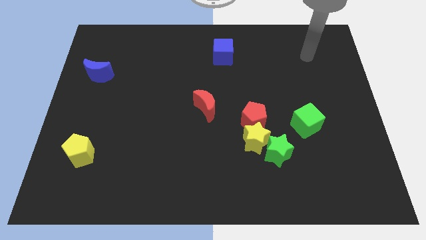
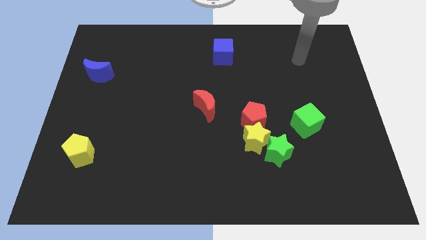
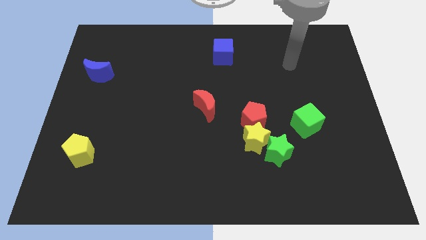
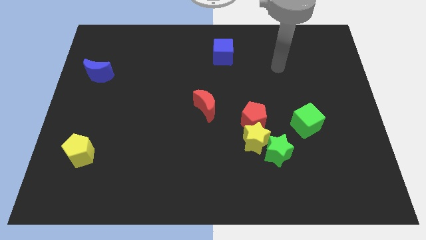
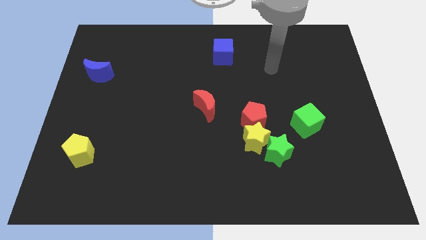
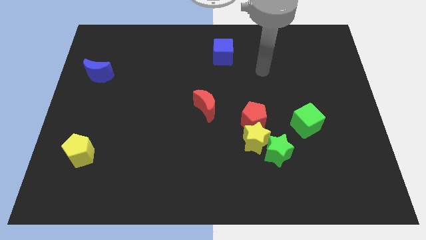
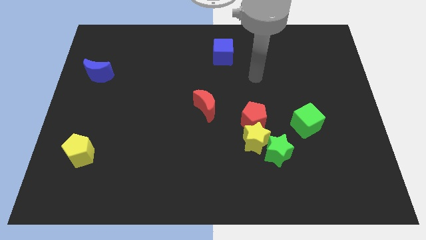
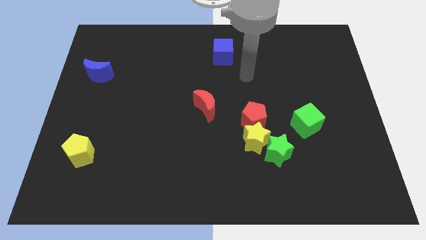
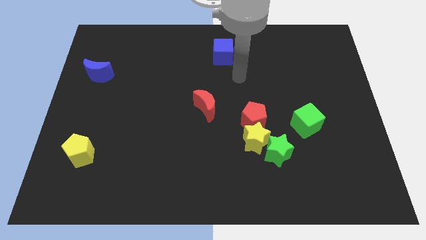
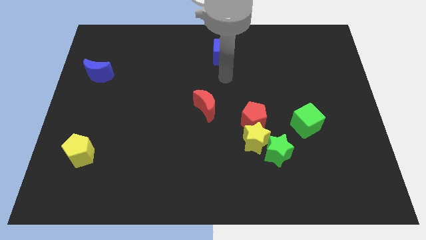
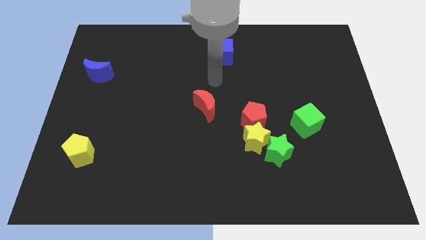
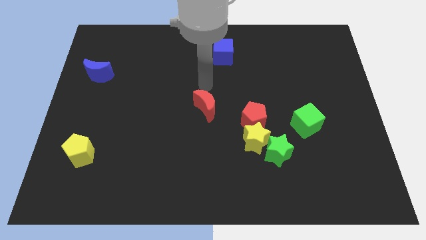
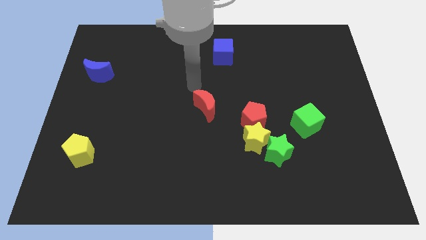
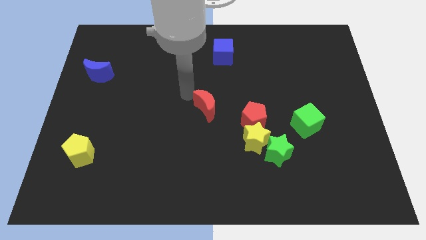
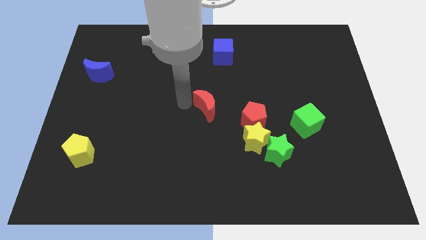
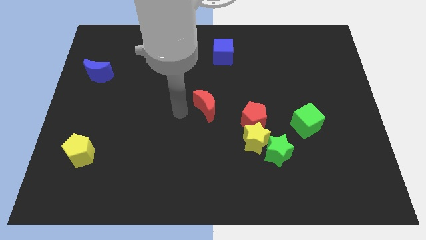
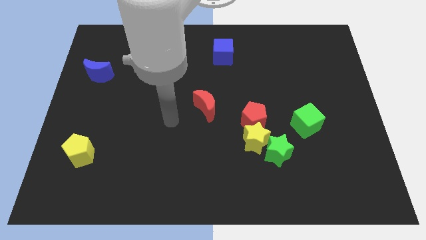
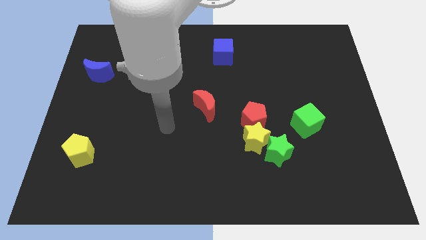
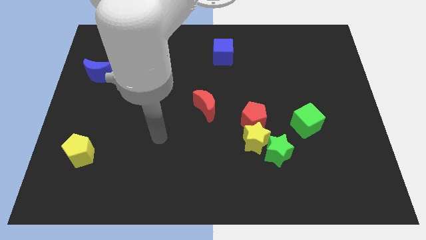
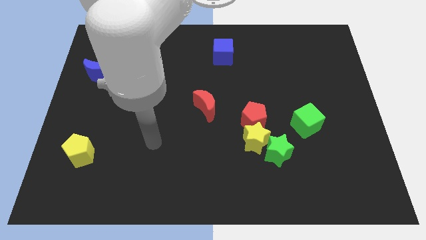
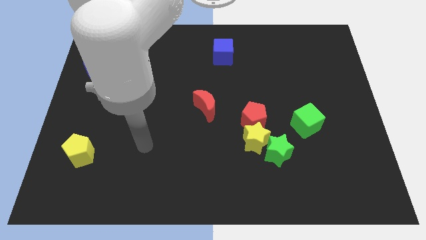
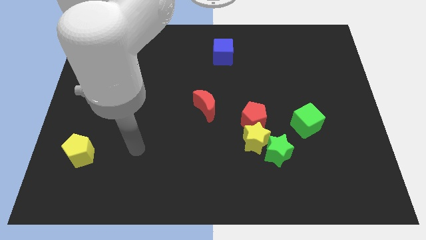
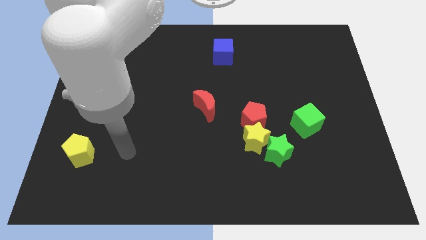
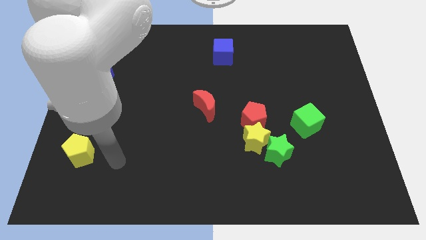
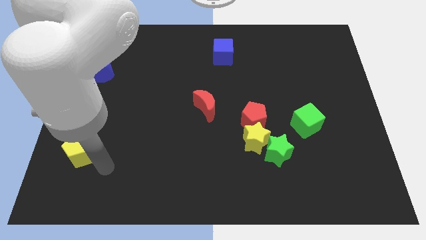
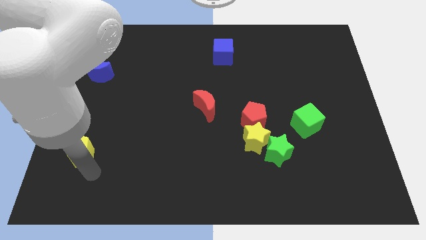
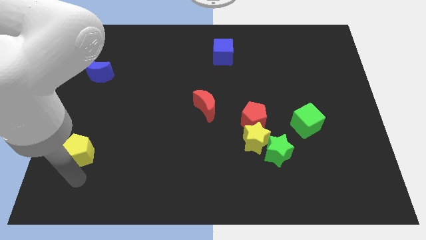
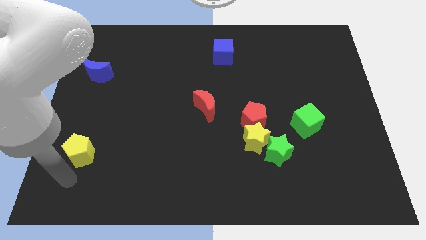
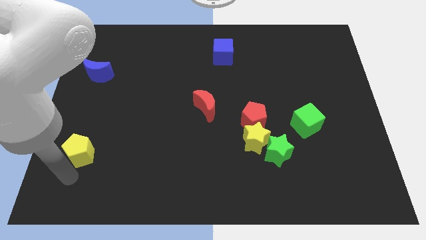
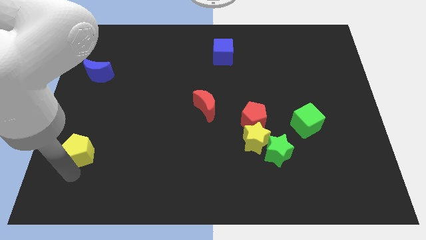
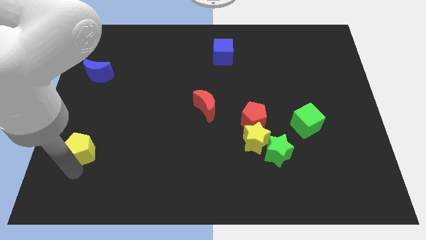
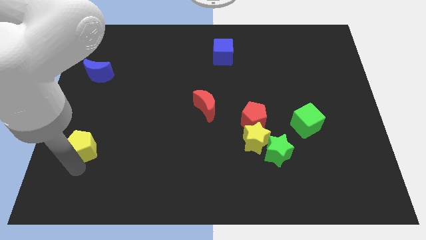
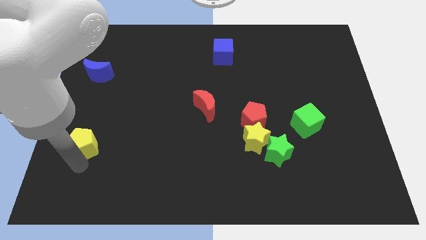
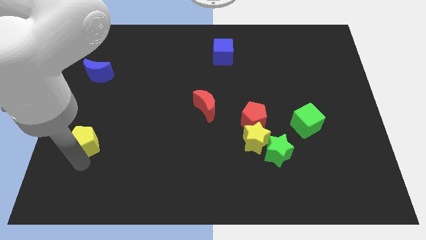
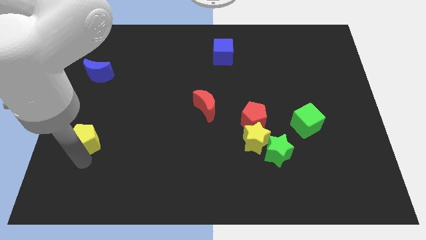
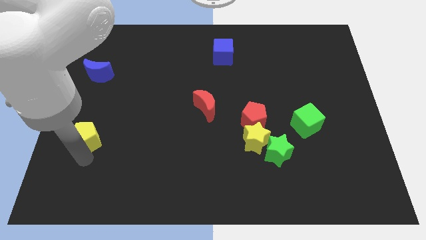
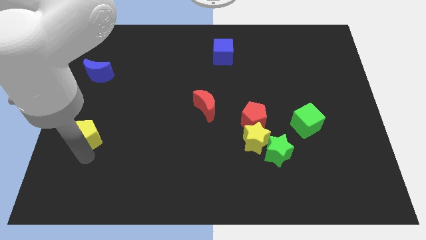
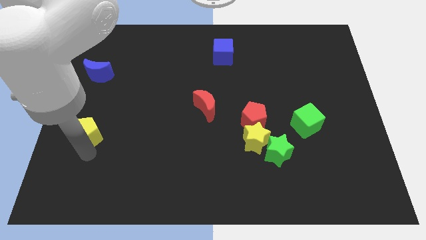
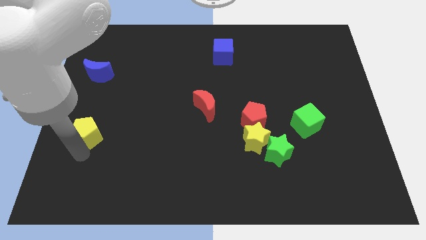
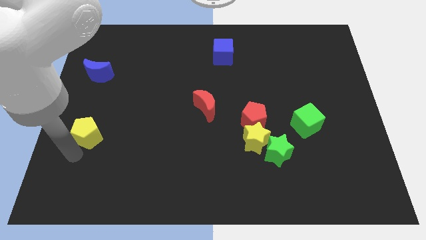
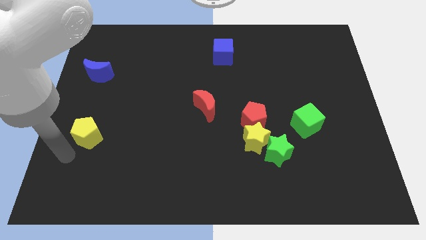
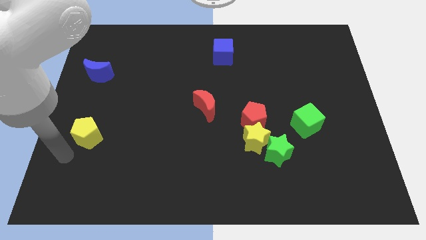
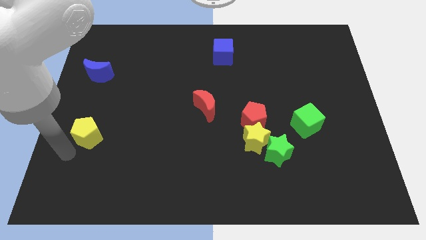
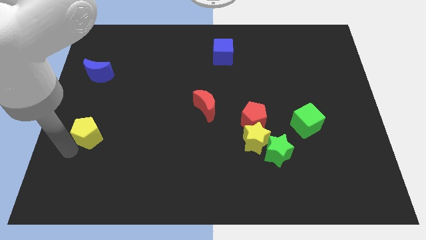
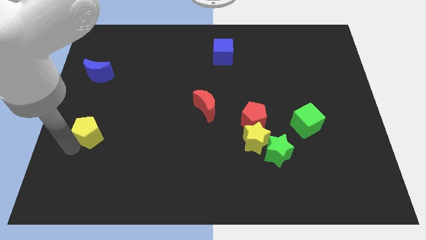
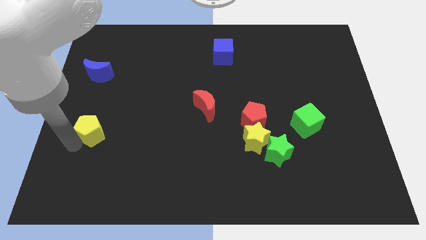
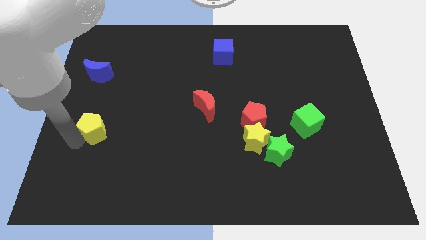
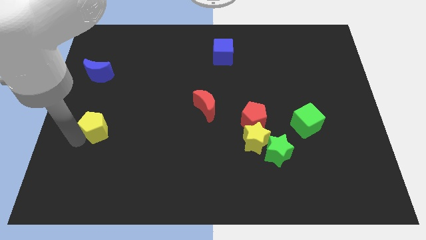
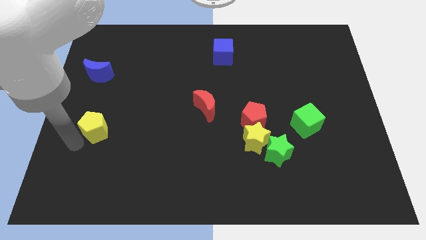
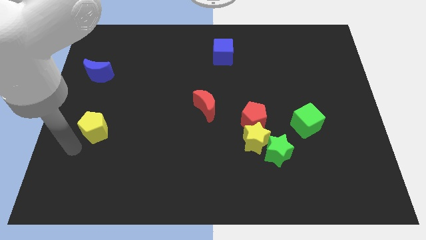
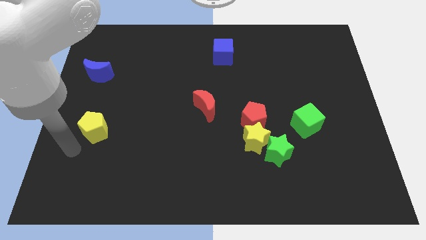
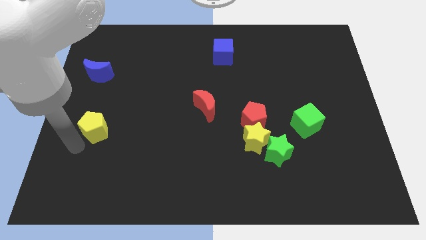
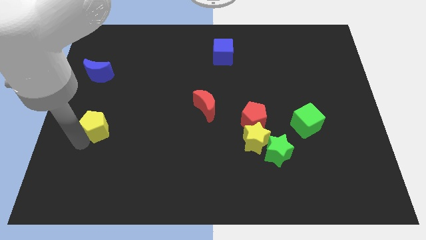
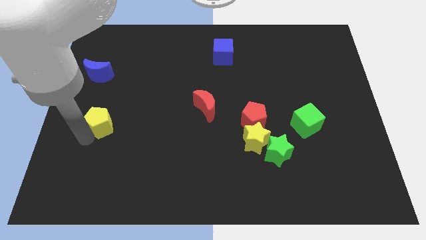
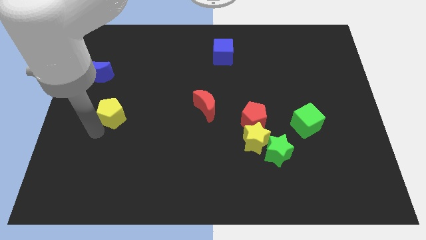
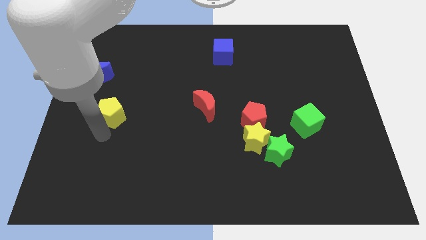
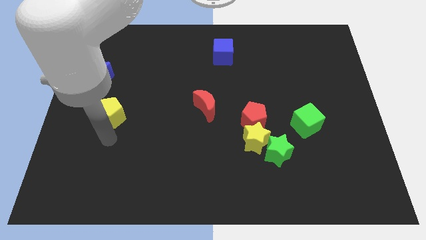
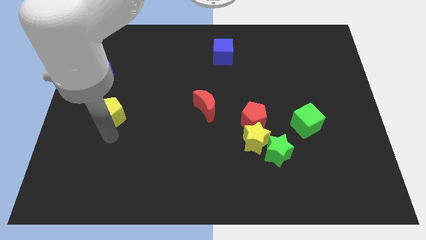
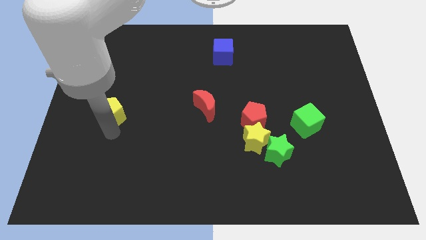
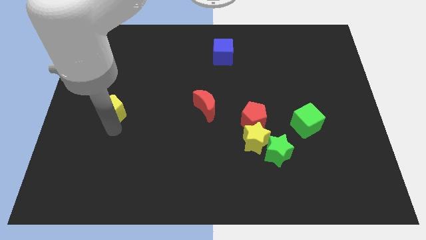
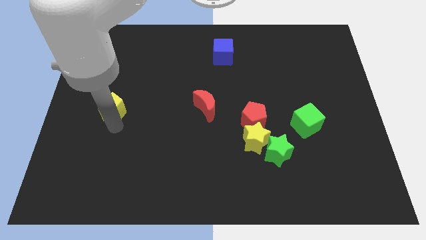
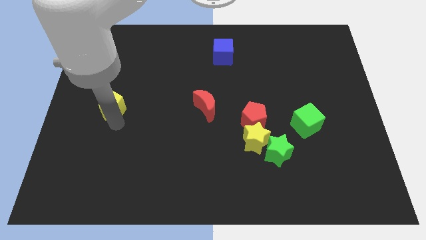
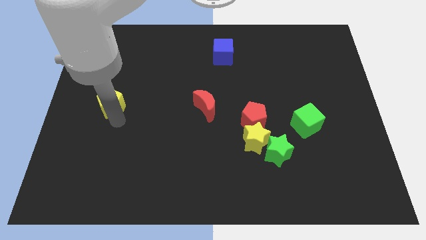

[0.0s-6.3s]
push the yellow pentagon diagonally down and to the right of the blue moon

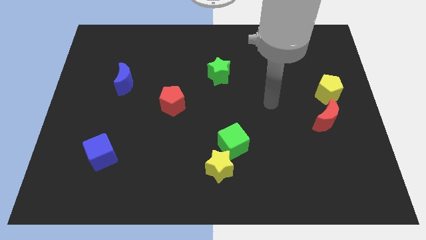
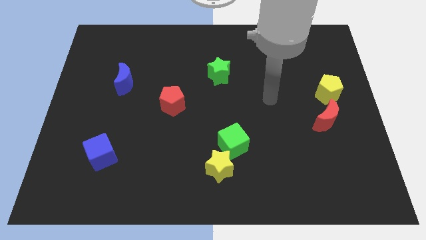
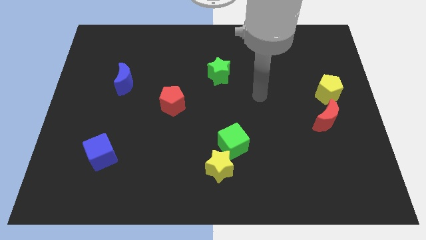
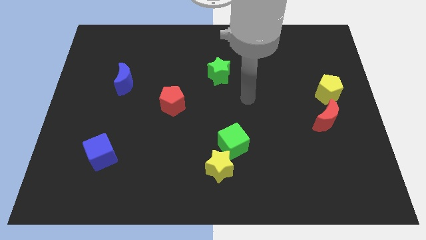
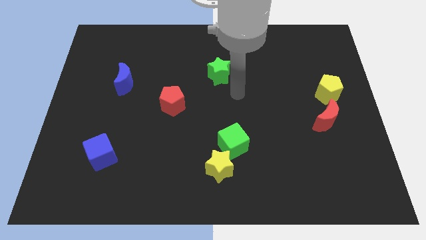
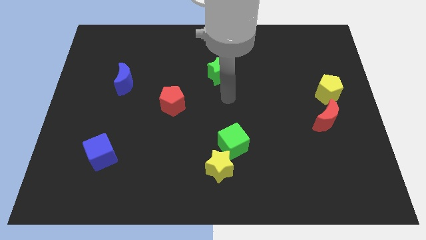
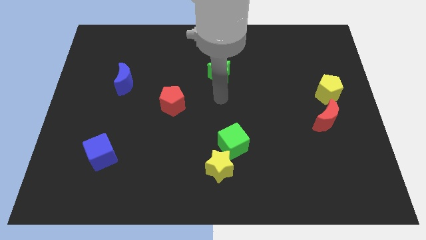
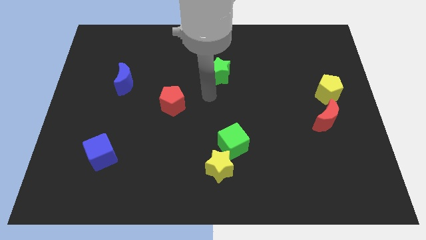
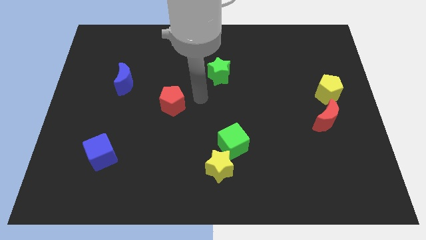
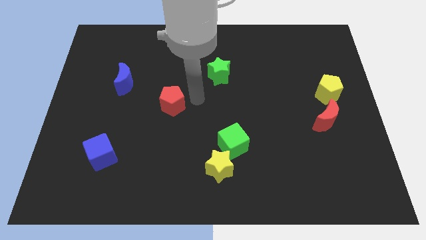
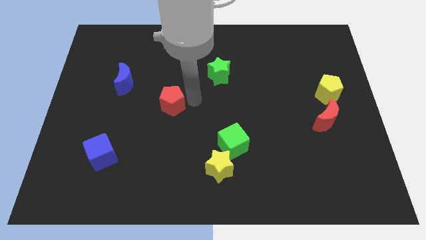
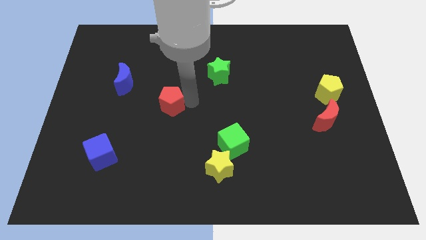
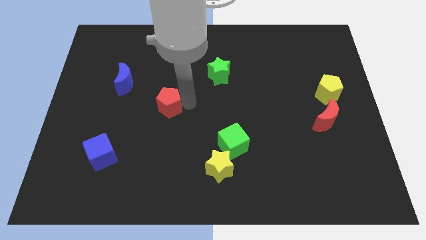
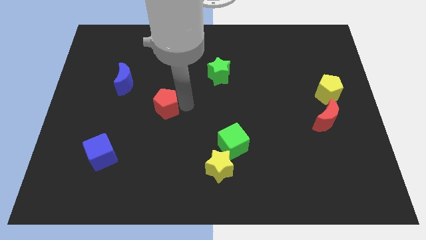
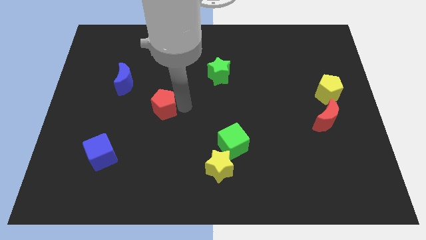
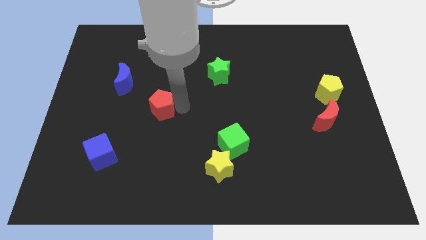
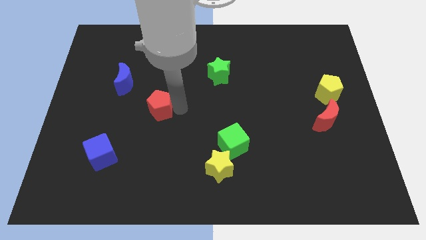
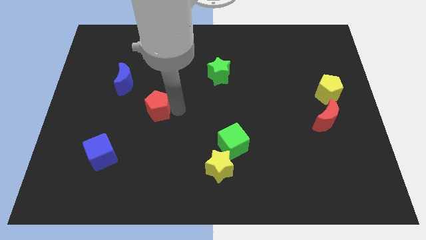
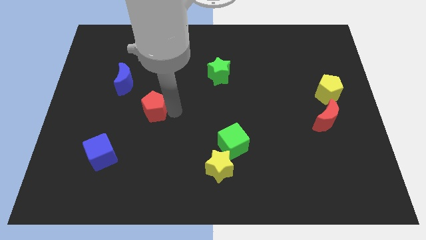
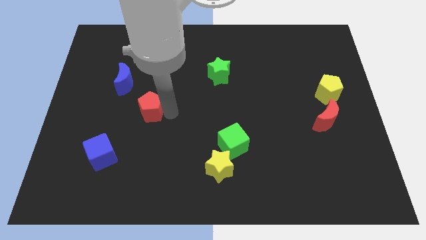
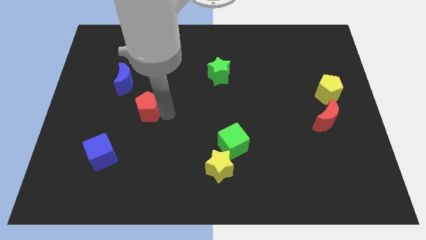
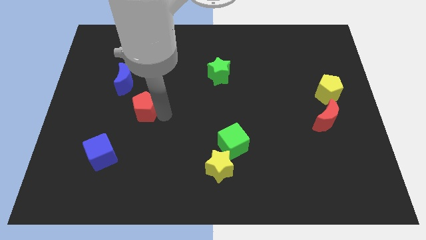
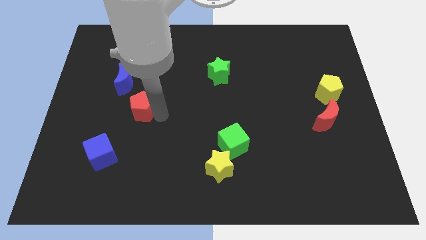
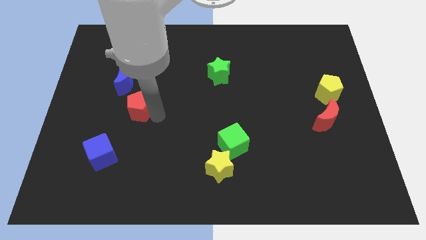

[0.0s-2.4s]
put the red pentagon to the bottom of the blue moon
